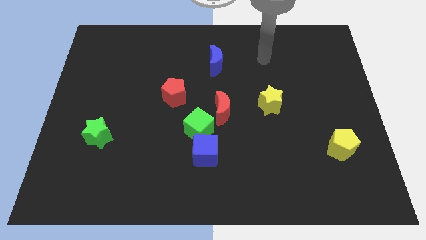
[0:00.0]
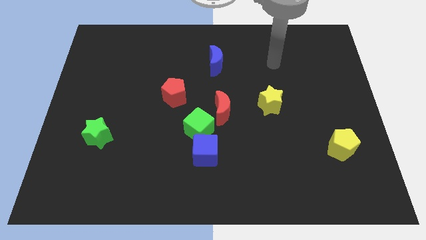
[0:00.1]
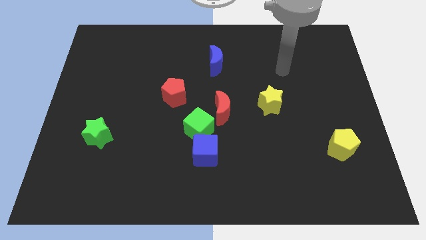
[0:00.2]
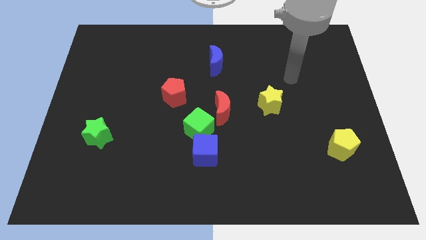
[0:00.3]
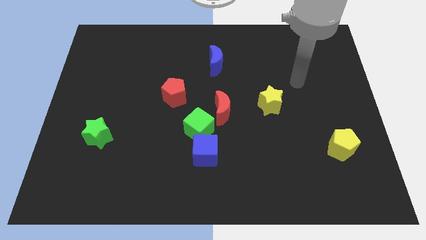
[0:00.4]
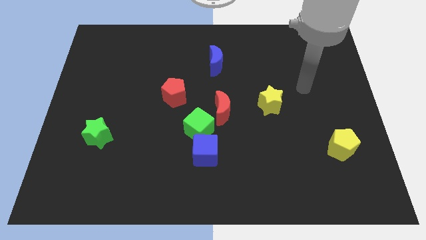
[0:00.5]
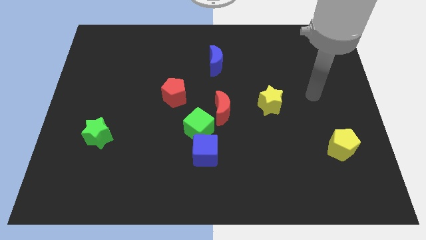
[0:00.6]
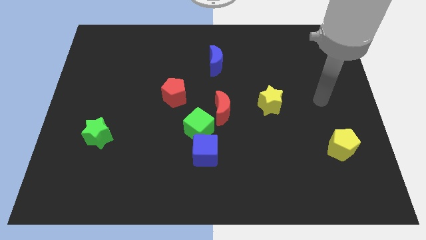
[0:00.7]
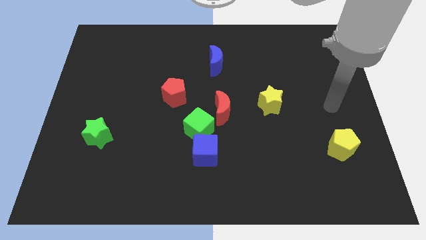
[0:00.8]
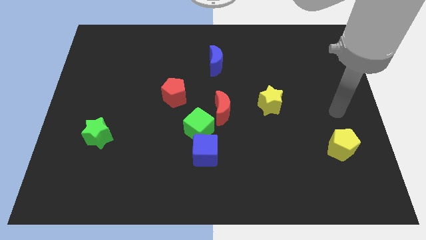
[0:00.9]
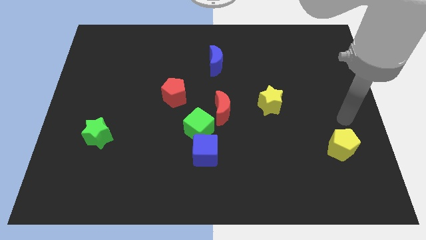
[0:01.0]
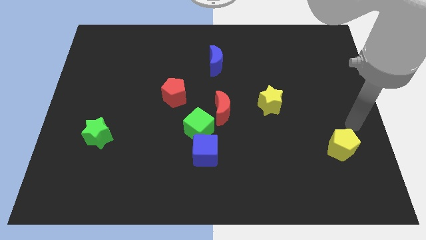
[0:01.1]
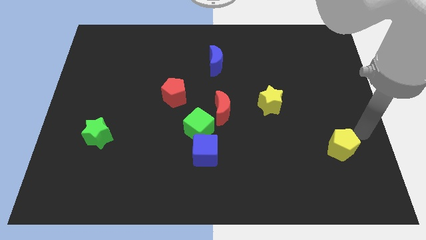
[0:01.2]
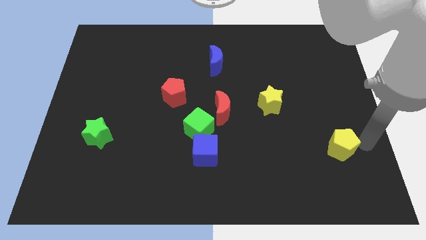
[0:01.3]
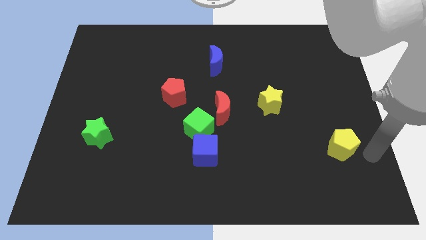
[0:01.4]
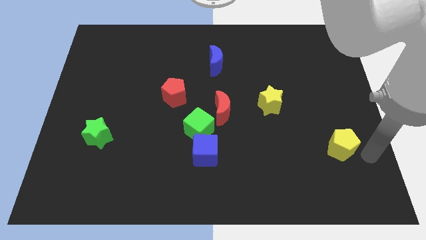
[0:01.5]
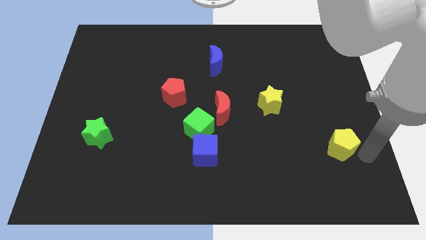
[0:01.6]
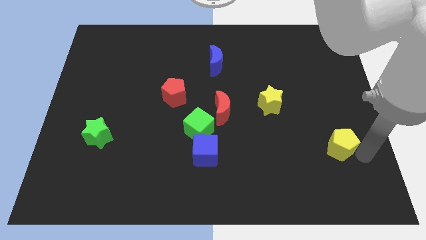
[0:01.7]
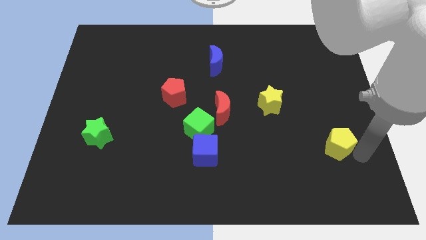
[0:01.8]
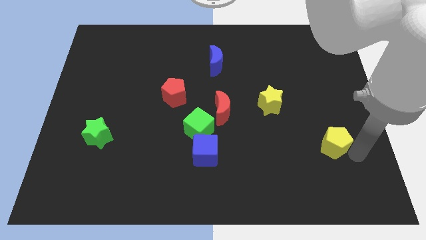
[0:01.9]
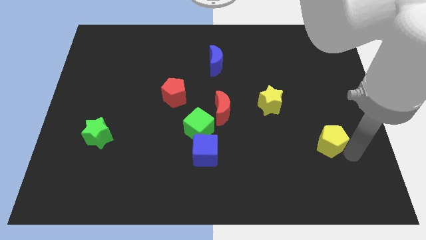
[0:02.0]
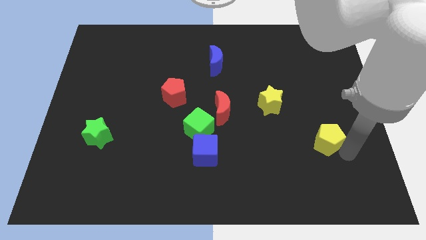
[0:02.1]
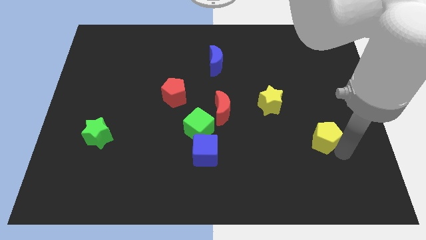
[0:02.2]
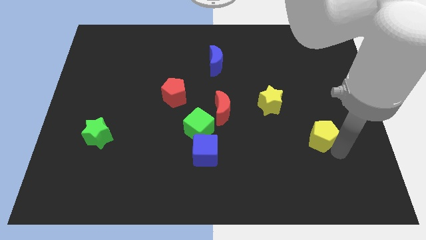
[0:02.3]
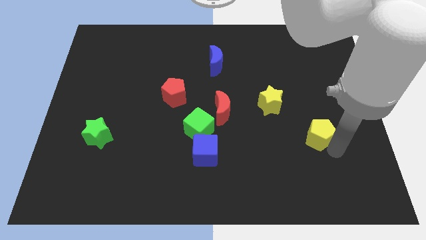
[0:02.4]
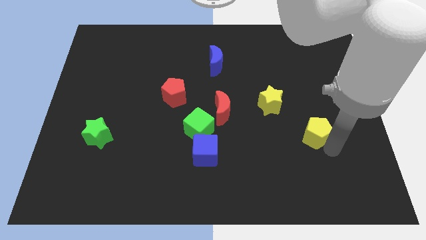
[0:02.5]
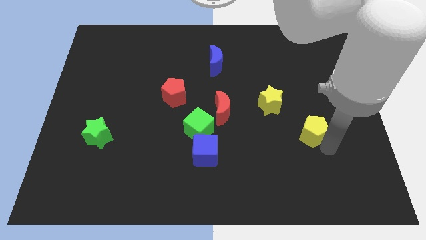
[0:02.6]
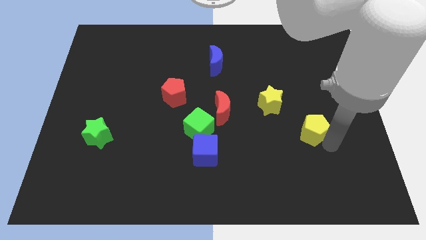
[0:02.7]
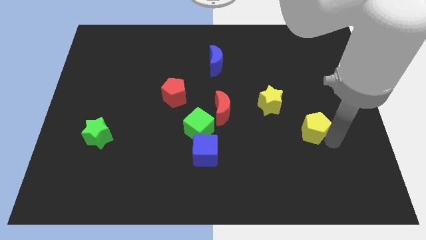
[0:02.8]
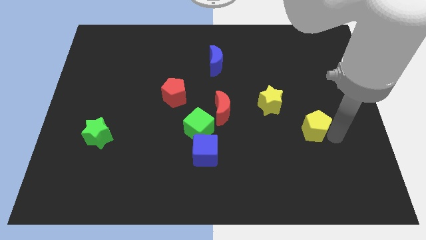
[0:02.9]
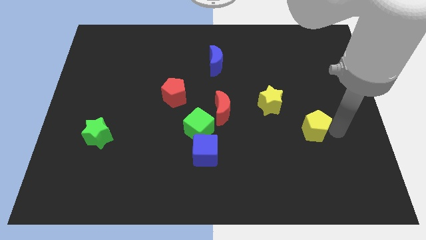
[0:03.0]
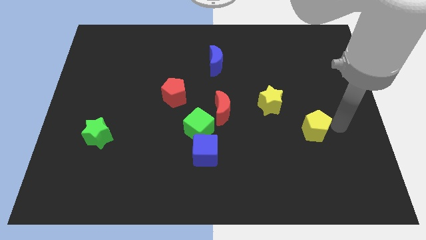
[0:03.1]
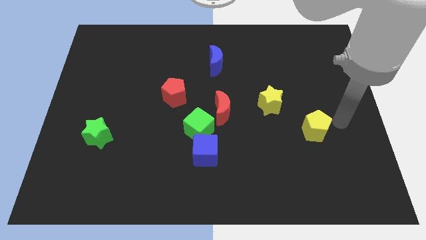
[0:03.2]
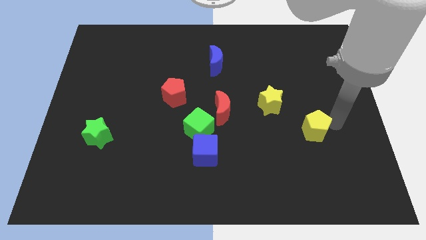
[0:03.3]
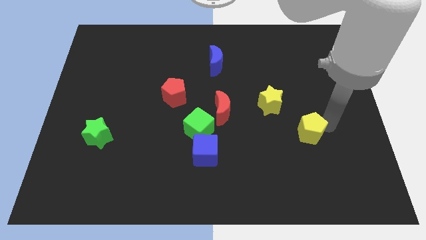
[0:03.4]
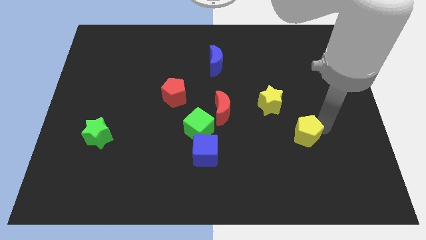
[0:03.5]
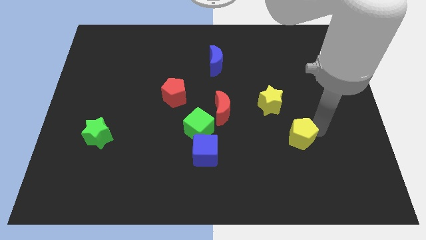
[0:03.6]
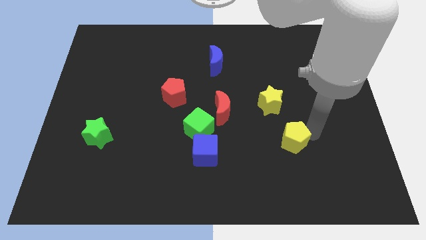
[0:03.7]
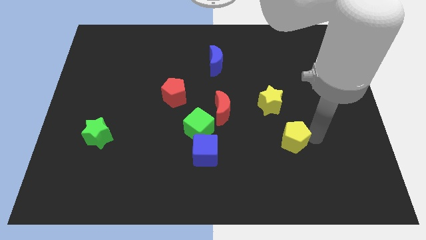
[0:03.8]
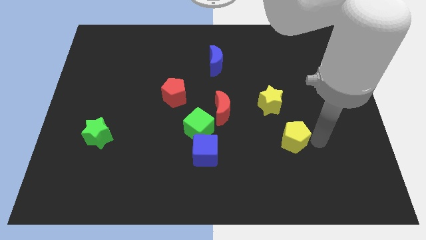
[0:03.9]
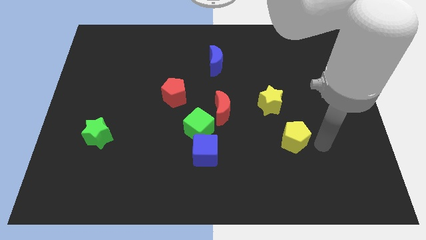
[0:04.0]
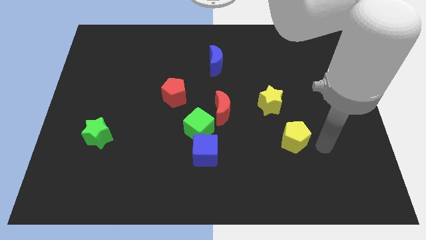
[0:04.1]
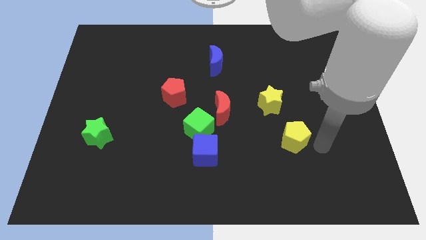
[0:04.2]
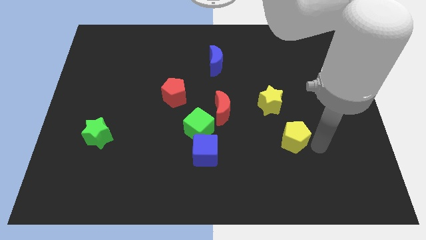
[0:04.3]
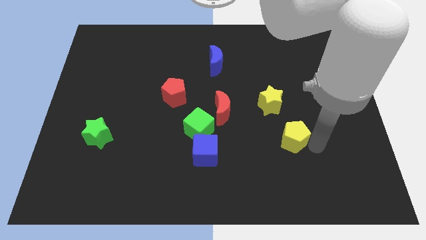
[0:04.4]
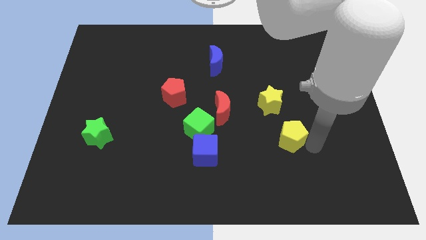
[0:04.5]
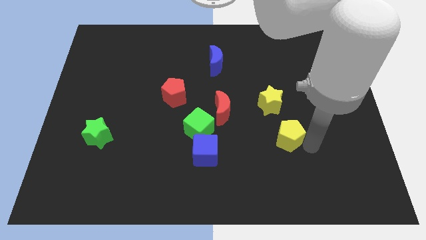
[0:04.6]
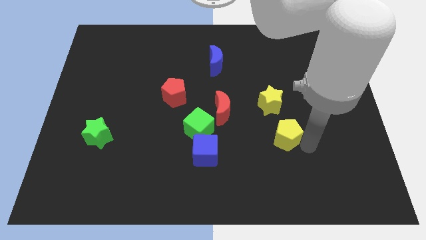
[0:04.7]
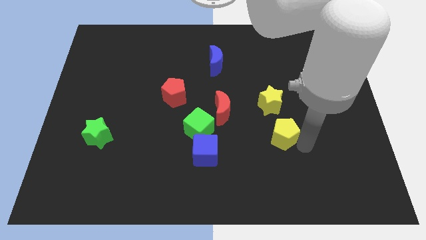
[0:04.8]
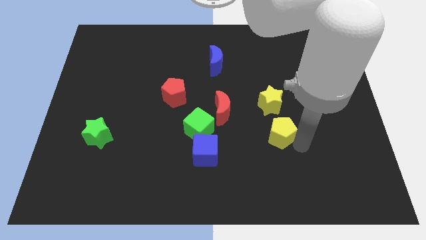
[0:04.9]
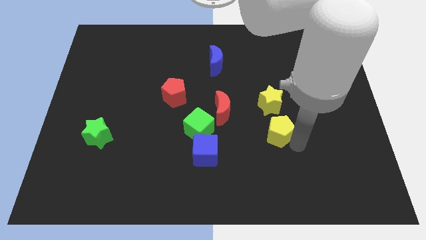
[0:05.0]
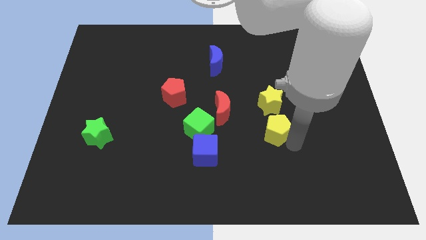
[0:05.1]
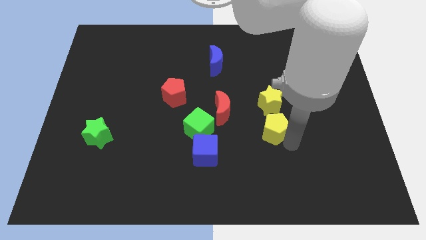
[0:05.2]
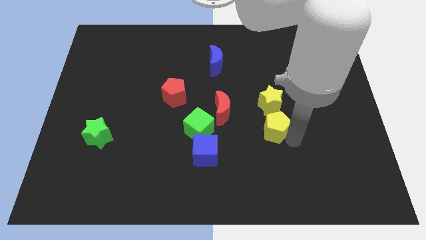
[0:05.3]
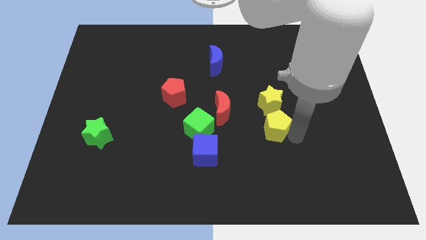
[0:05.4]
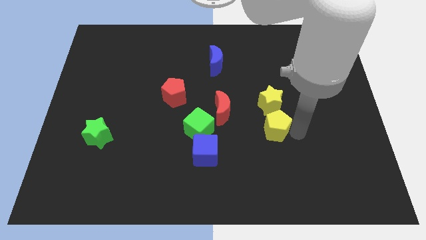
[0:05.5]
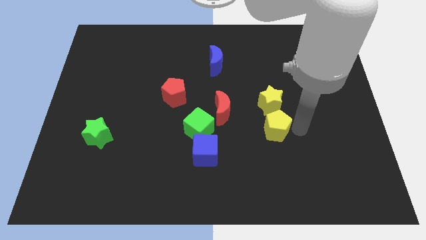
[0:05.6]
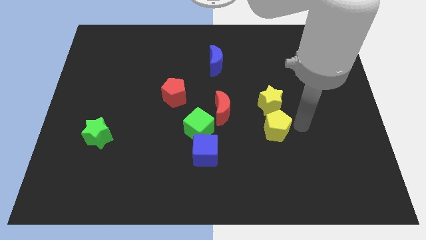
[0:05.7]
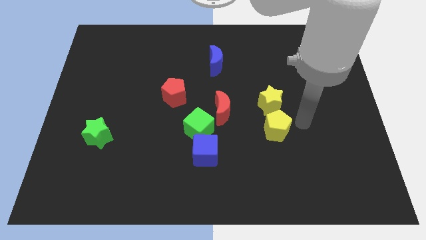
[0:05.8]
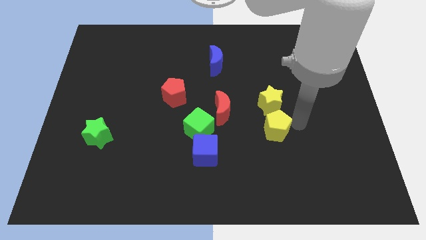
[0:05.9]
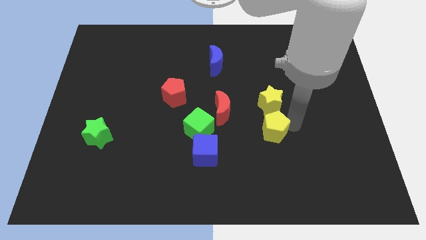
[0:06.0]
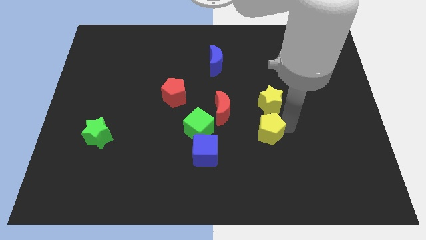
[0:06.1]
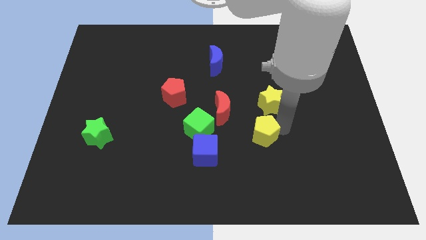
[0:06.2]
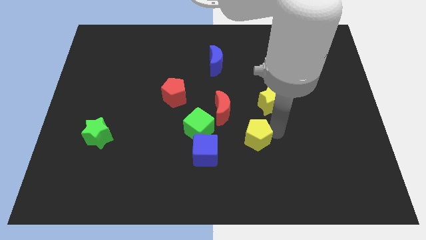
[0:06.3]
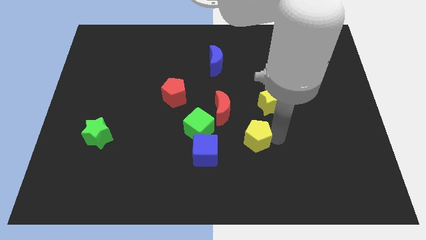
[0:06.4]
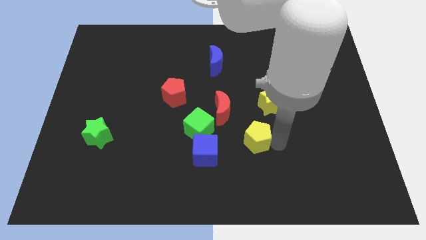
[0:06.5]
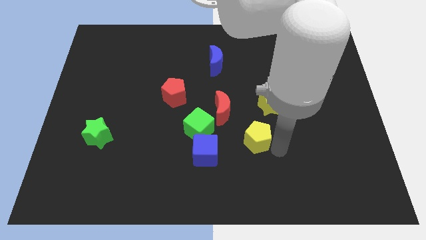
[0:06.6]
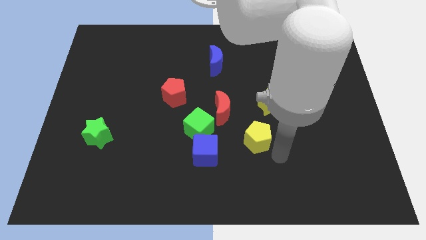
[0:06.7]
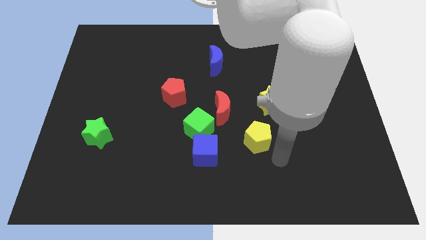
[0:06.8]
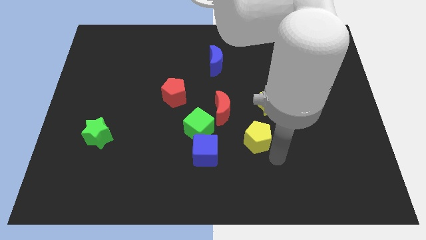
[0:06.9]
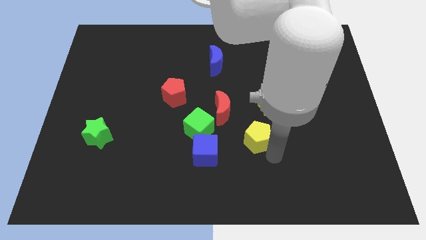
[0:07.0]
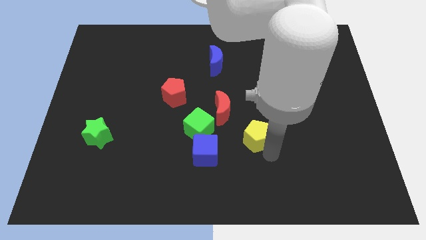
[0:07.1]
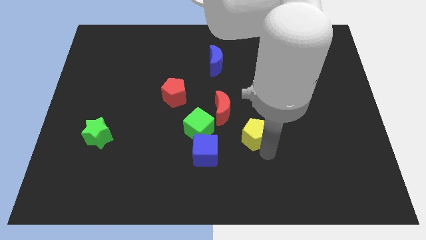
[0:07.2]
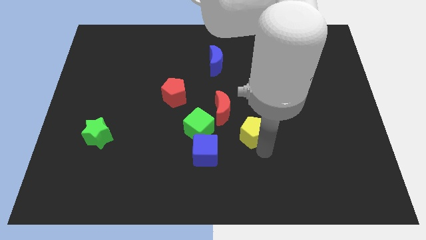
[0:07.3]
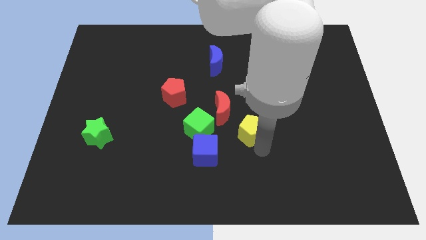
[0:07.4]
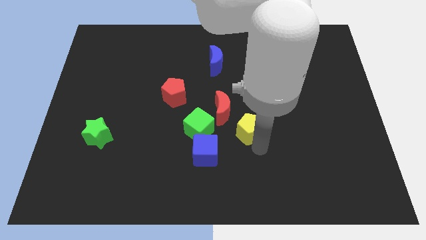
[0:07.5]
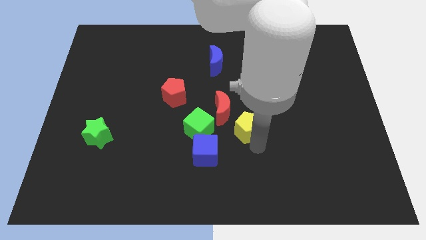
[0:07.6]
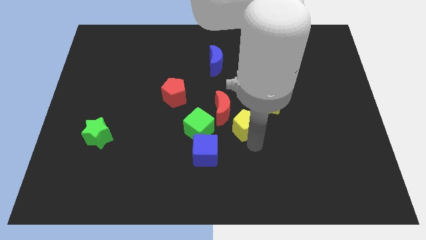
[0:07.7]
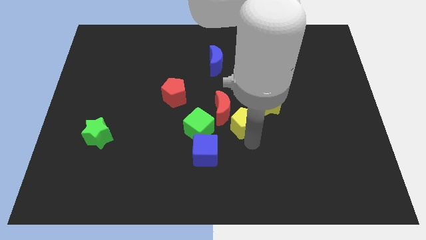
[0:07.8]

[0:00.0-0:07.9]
put the yellow pentagon next to the red moon
